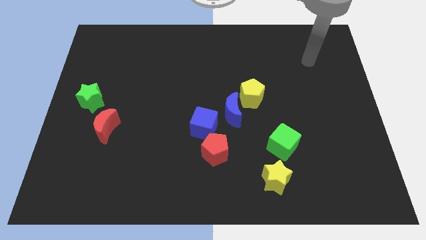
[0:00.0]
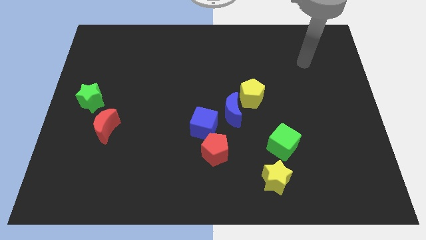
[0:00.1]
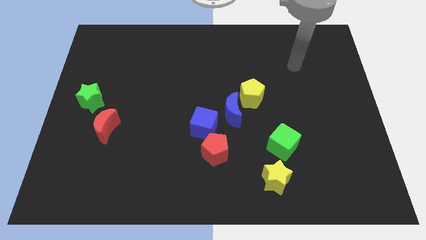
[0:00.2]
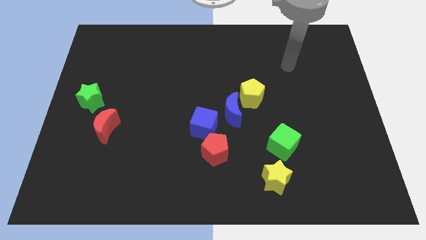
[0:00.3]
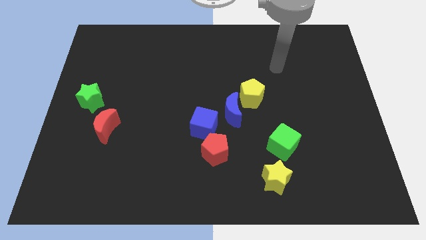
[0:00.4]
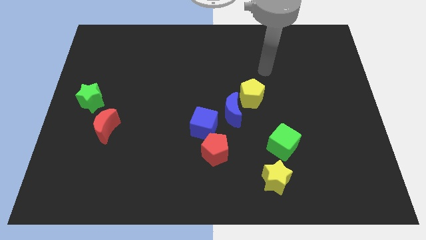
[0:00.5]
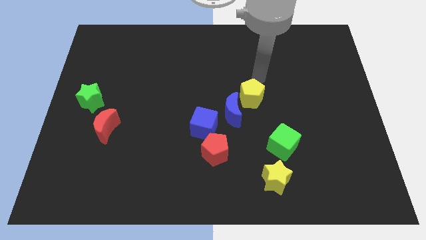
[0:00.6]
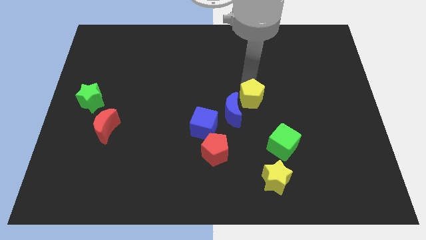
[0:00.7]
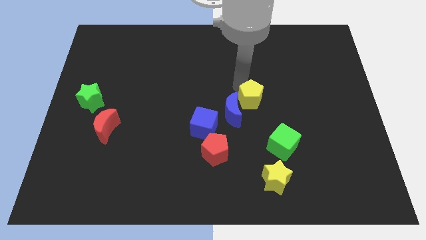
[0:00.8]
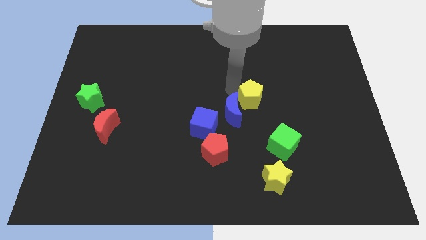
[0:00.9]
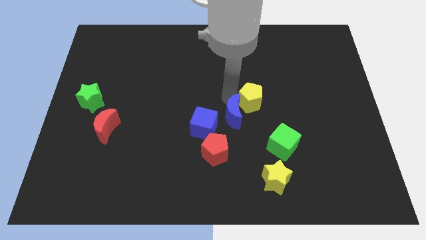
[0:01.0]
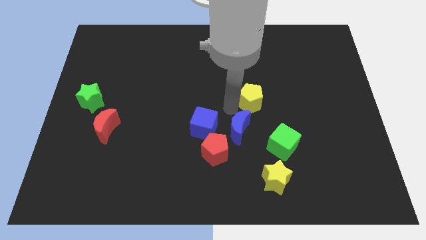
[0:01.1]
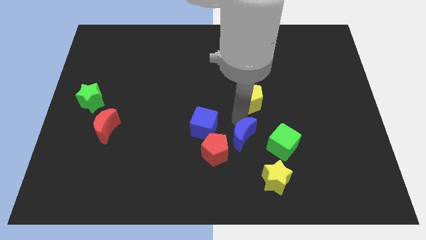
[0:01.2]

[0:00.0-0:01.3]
pull the yellow pentagon apart from the blue moon

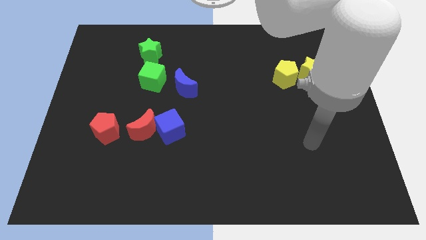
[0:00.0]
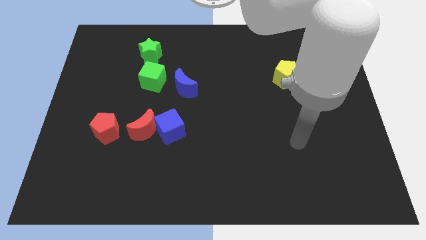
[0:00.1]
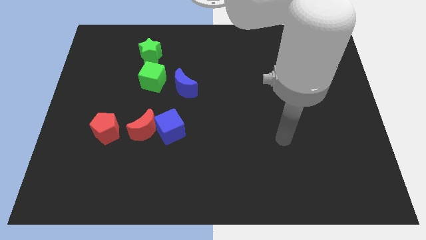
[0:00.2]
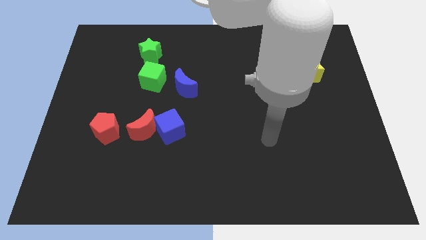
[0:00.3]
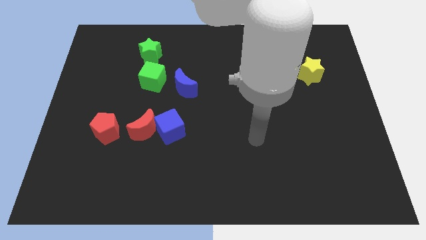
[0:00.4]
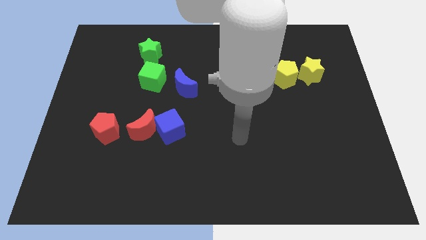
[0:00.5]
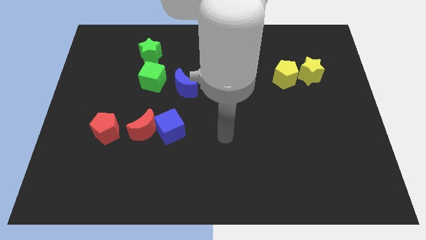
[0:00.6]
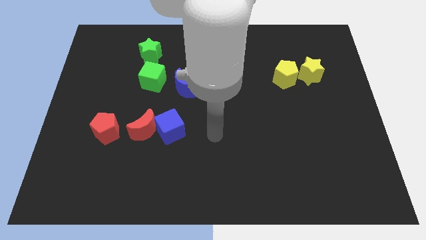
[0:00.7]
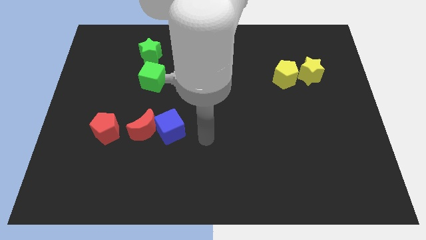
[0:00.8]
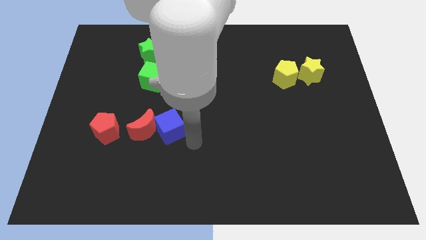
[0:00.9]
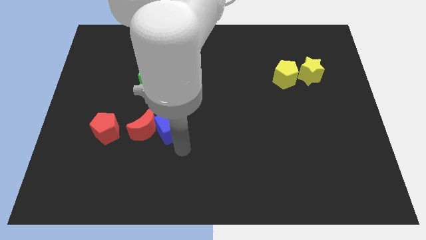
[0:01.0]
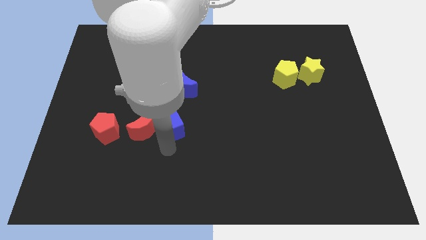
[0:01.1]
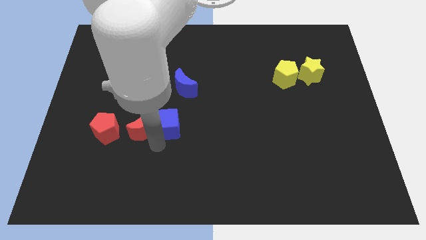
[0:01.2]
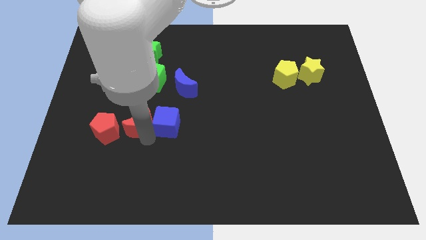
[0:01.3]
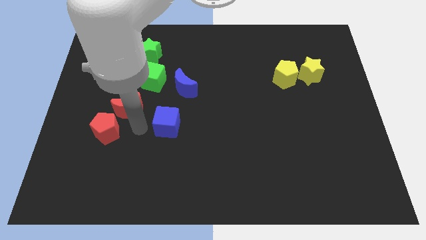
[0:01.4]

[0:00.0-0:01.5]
pull the blue cube apart from the red moon

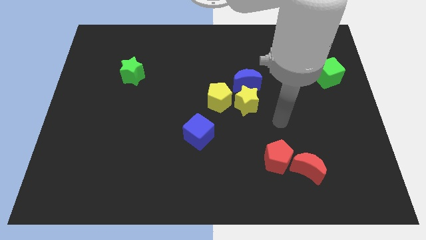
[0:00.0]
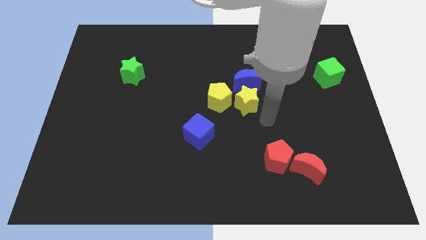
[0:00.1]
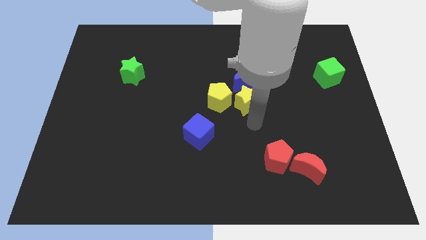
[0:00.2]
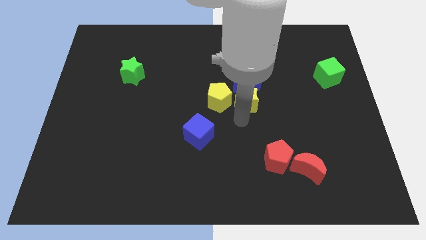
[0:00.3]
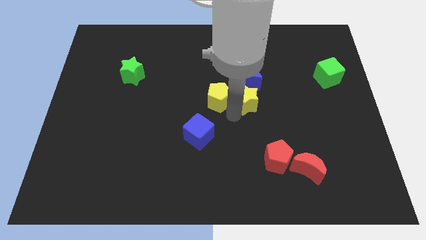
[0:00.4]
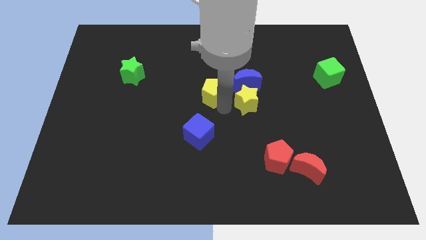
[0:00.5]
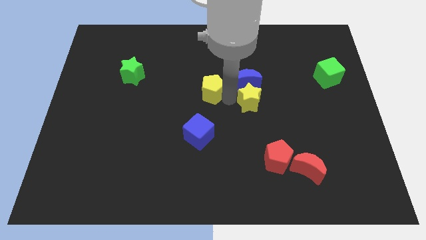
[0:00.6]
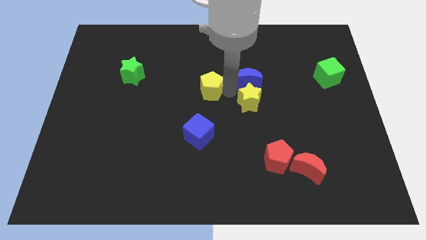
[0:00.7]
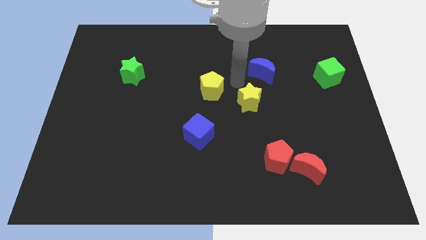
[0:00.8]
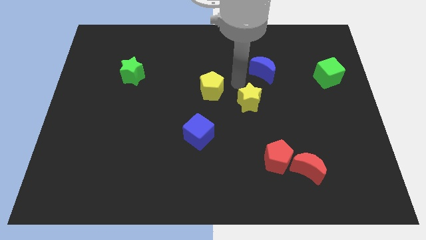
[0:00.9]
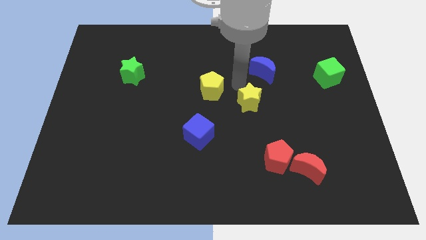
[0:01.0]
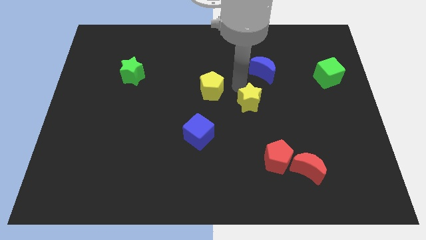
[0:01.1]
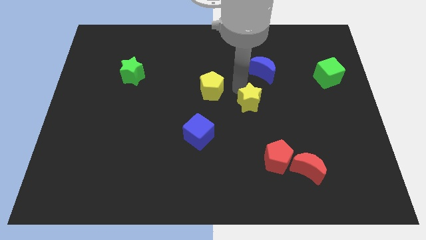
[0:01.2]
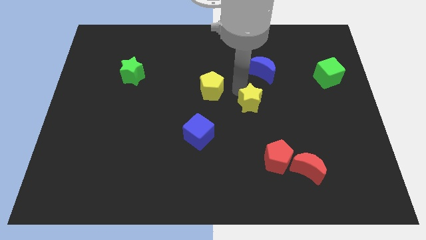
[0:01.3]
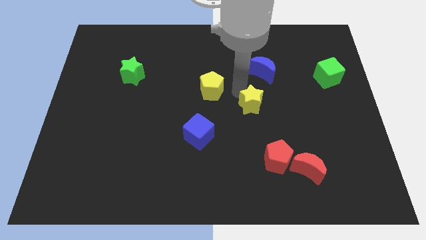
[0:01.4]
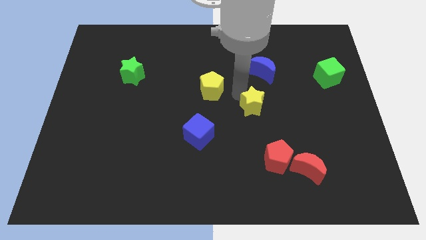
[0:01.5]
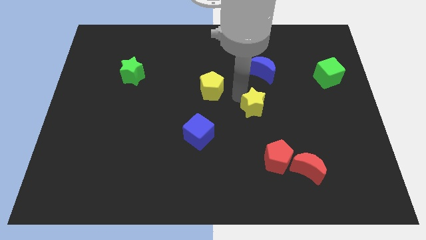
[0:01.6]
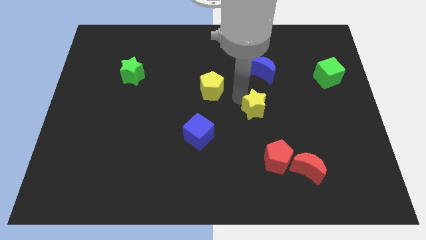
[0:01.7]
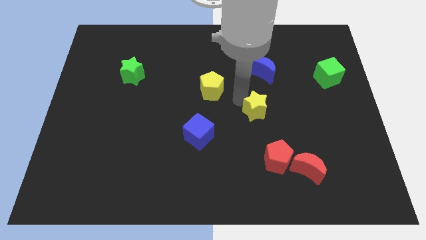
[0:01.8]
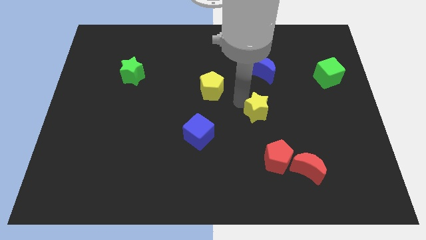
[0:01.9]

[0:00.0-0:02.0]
pull the yellow star apart from the blue moon and yellow pentagon

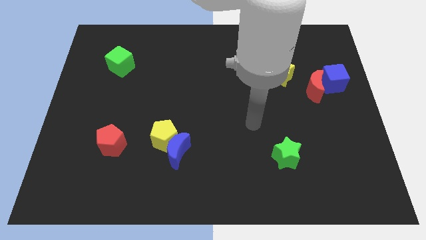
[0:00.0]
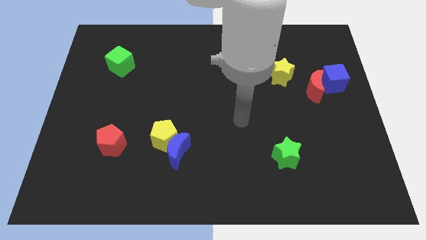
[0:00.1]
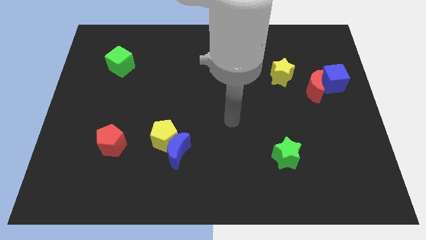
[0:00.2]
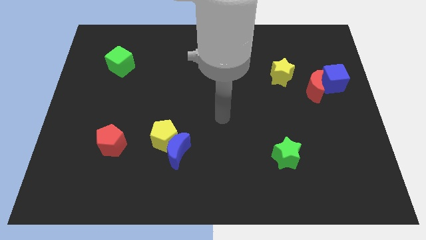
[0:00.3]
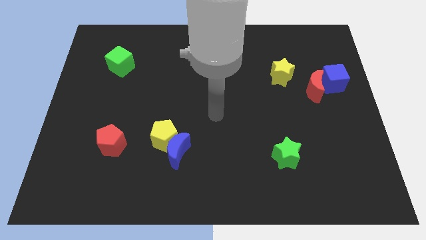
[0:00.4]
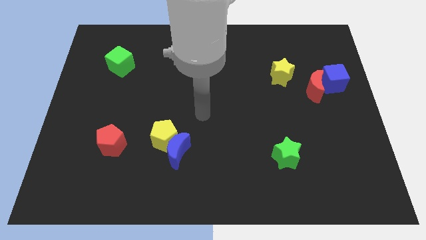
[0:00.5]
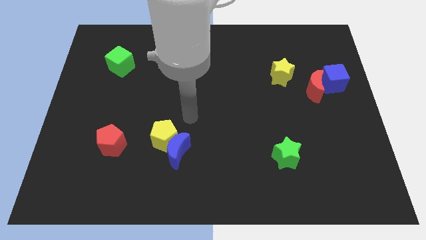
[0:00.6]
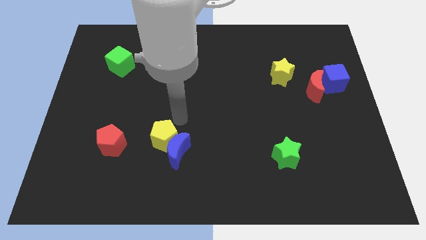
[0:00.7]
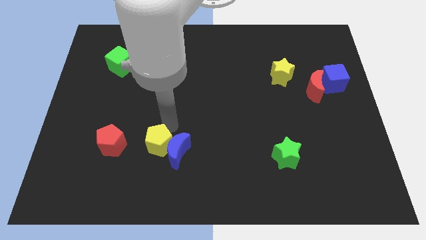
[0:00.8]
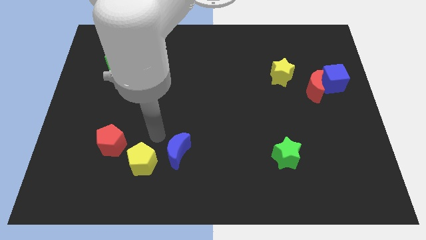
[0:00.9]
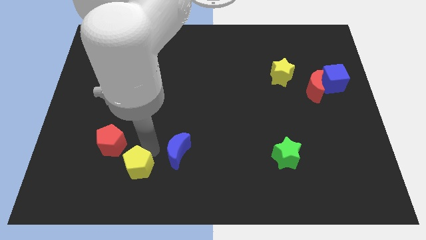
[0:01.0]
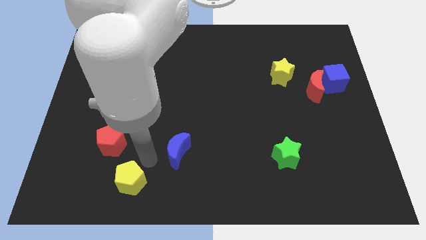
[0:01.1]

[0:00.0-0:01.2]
pull the blue moon apart from the yellow pentagon

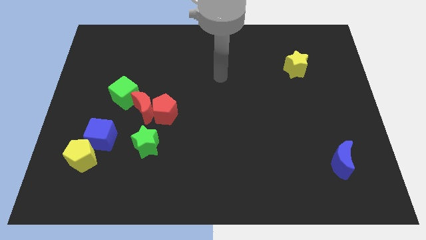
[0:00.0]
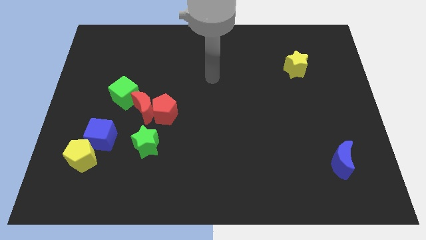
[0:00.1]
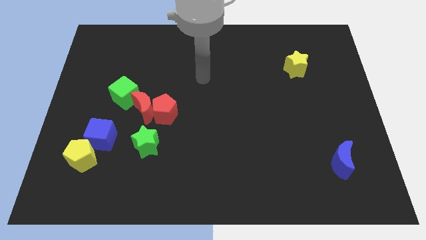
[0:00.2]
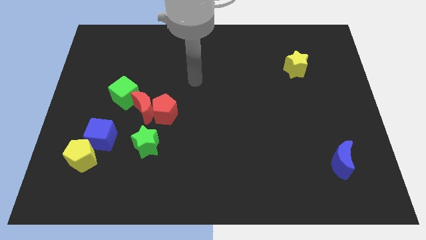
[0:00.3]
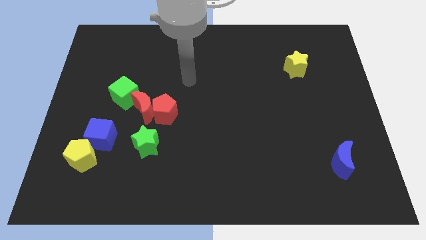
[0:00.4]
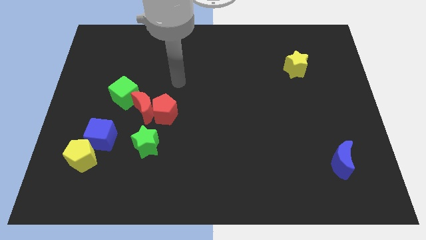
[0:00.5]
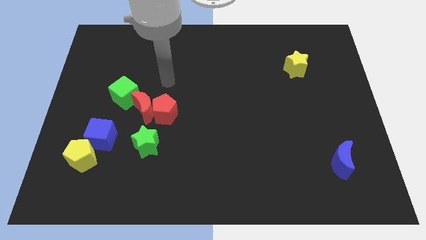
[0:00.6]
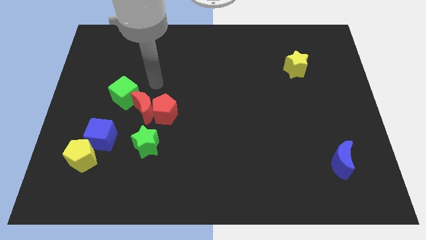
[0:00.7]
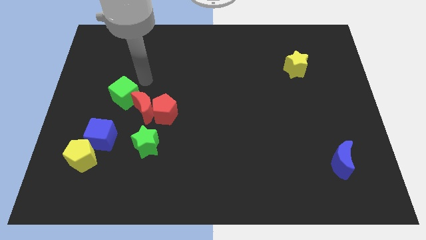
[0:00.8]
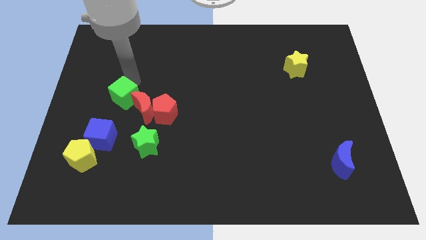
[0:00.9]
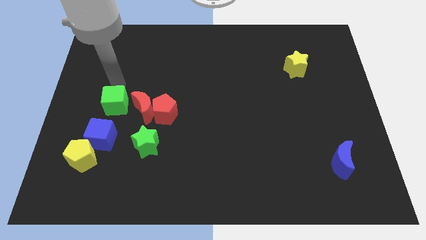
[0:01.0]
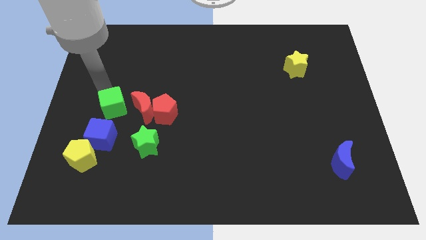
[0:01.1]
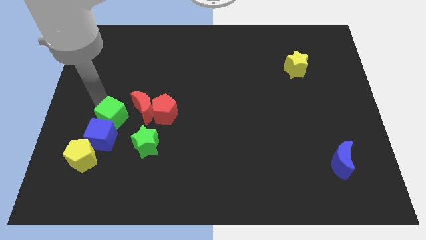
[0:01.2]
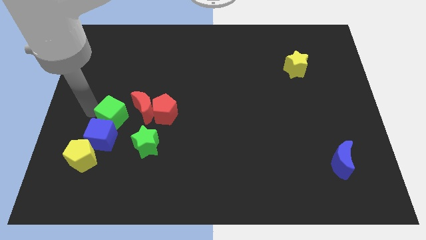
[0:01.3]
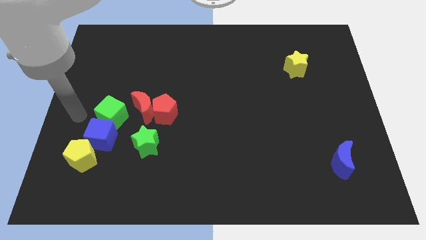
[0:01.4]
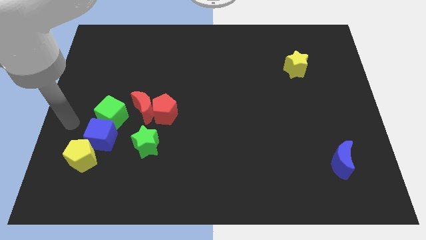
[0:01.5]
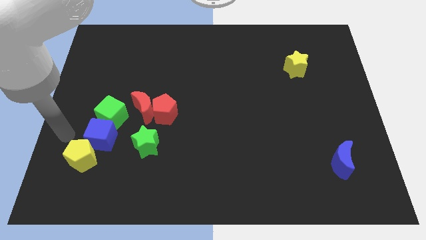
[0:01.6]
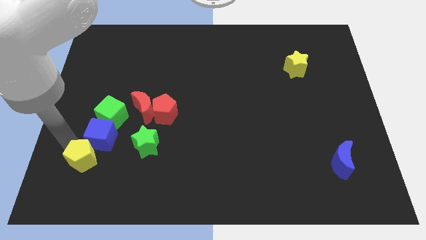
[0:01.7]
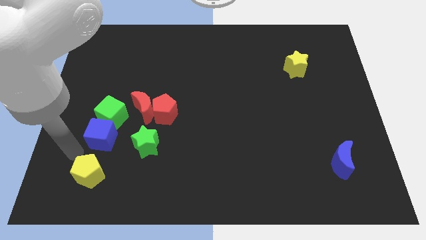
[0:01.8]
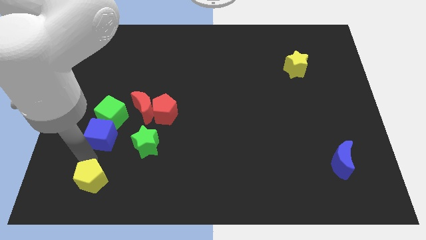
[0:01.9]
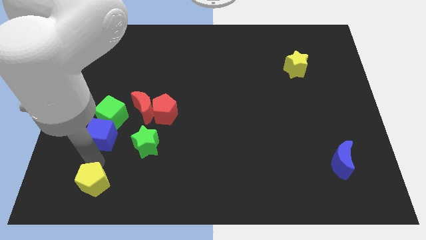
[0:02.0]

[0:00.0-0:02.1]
separate the blue cube from the yellow pentagon

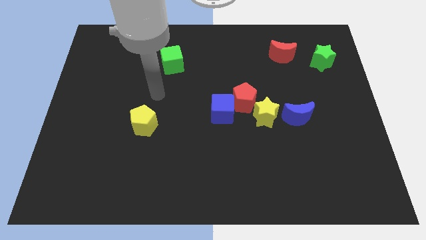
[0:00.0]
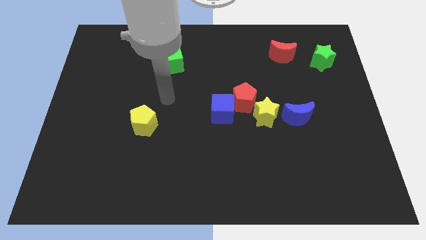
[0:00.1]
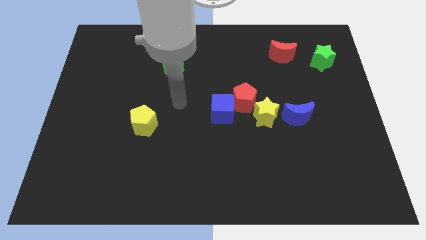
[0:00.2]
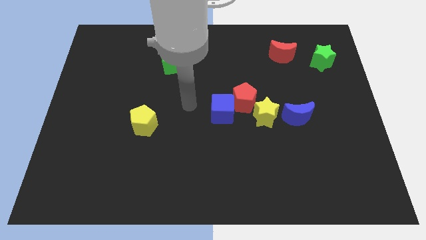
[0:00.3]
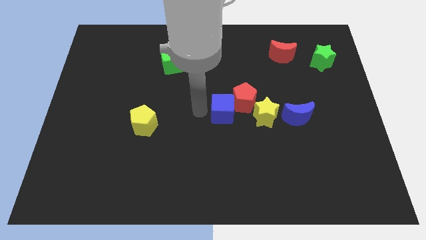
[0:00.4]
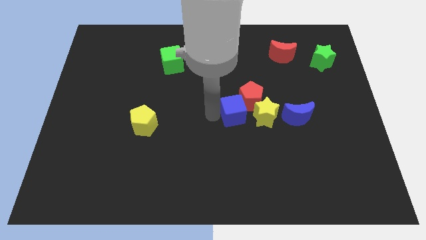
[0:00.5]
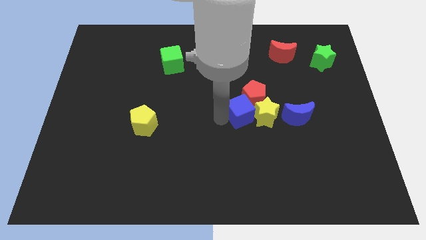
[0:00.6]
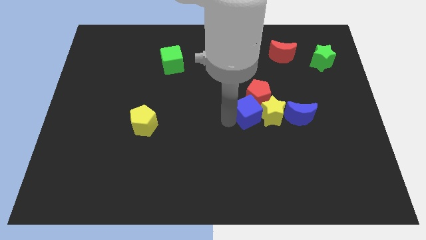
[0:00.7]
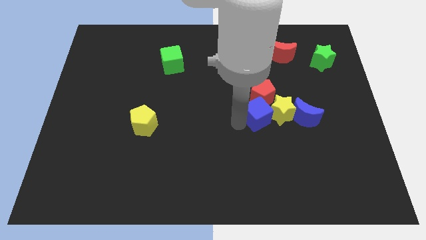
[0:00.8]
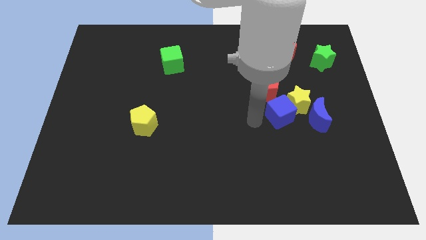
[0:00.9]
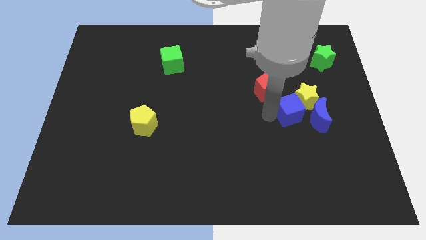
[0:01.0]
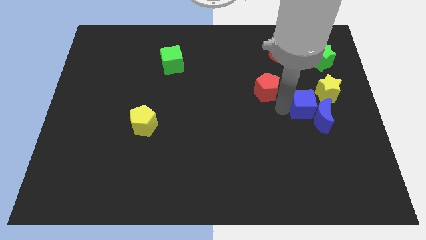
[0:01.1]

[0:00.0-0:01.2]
separate the red pentagon from the blue cube and yellow star
